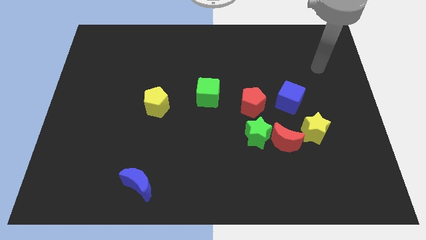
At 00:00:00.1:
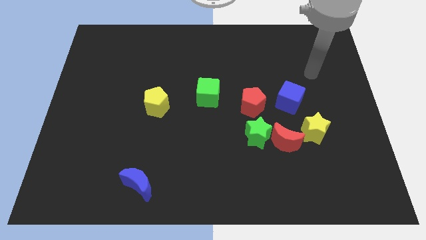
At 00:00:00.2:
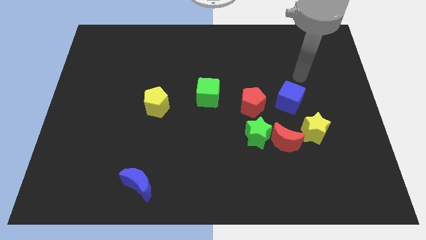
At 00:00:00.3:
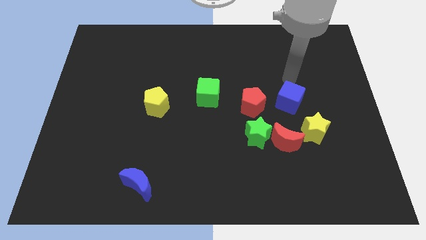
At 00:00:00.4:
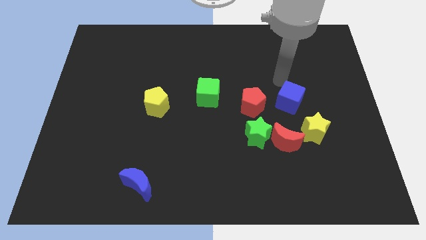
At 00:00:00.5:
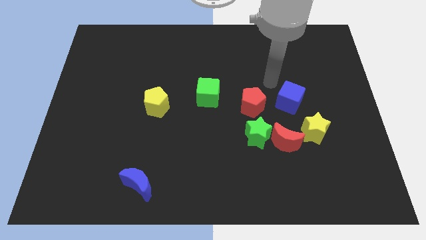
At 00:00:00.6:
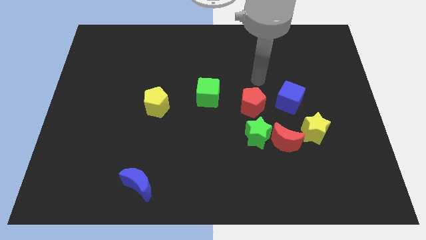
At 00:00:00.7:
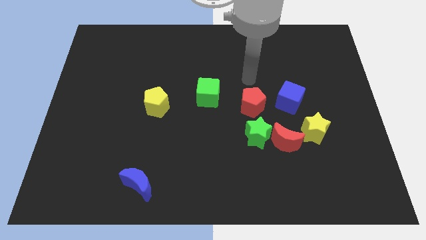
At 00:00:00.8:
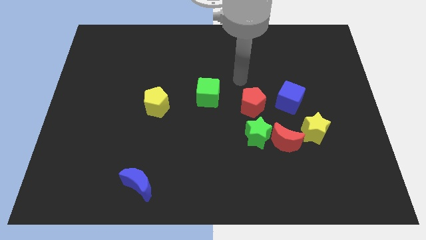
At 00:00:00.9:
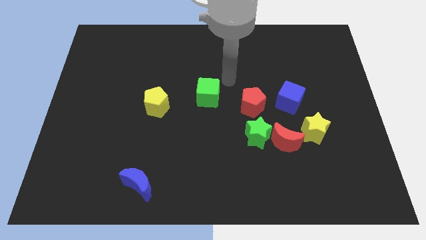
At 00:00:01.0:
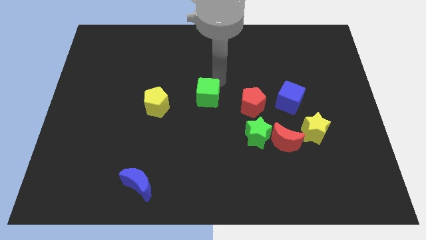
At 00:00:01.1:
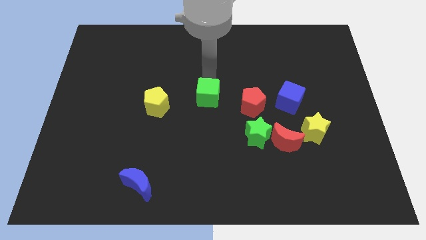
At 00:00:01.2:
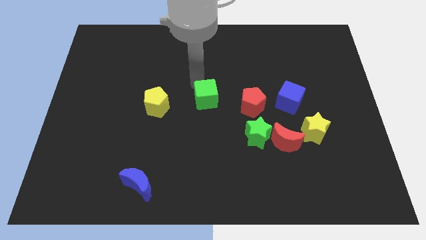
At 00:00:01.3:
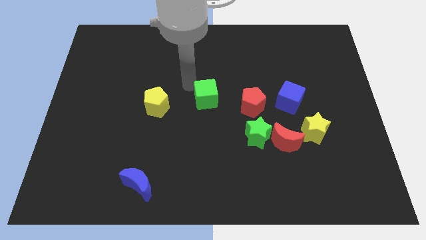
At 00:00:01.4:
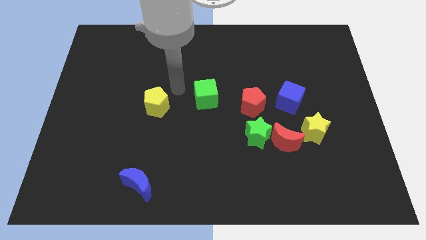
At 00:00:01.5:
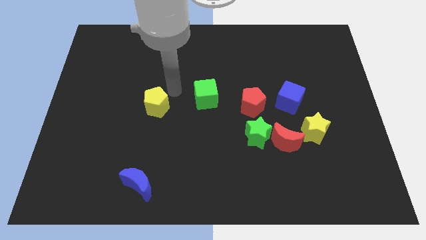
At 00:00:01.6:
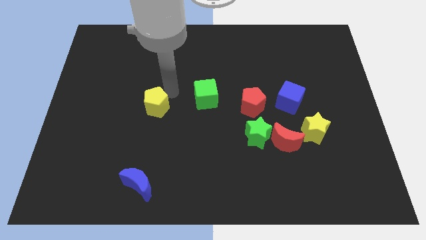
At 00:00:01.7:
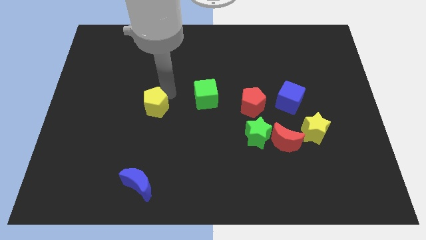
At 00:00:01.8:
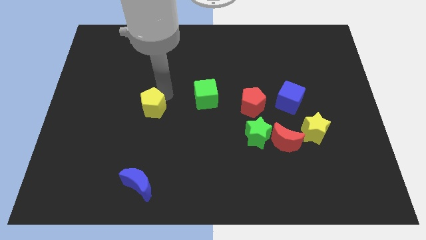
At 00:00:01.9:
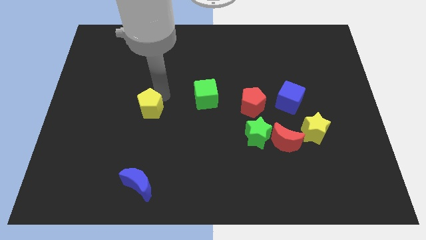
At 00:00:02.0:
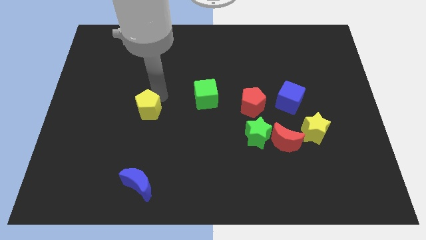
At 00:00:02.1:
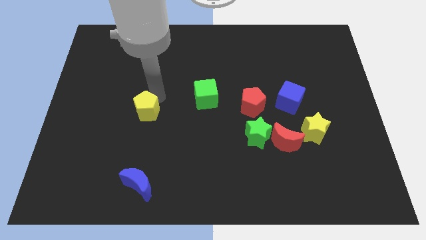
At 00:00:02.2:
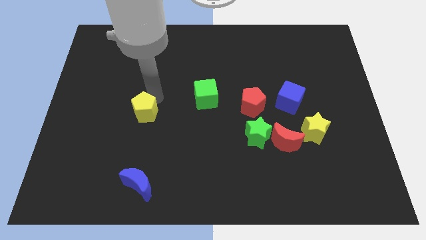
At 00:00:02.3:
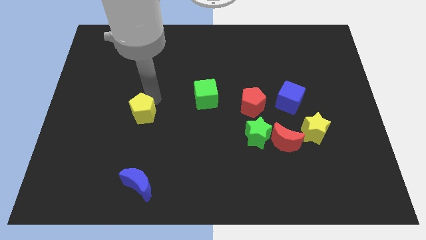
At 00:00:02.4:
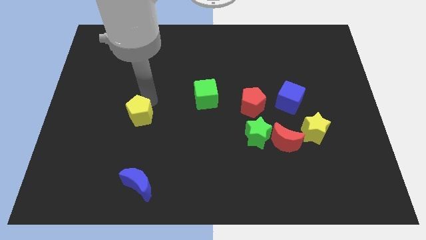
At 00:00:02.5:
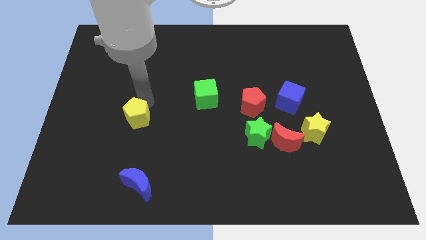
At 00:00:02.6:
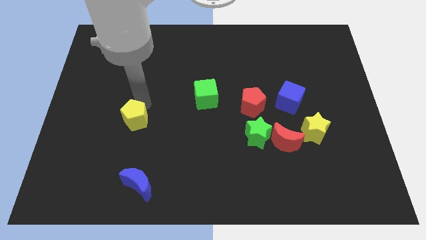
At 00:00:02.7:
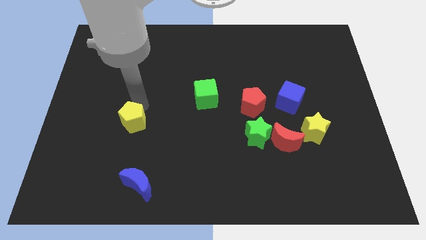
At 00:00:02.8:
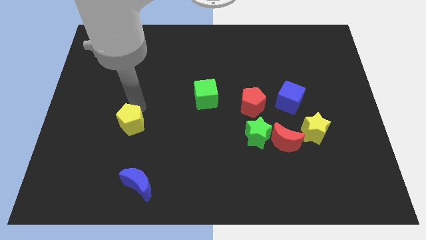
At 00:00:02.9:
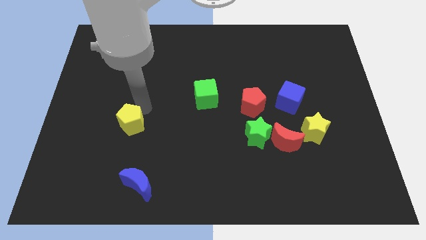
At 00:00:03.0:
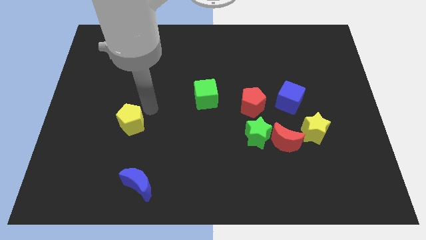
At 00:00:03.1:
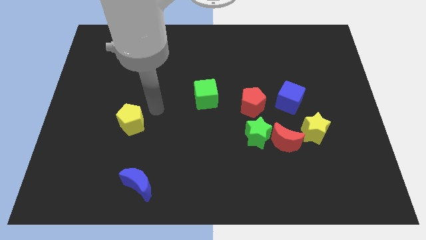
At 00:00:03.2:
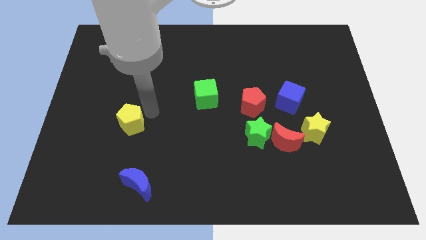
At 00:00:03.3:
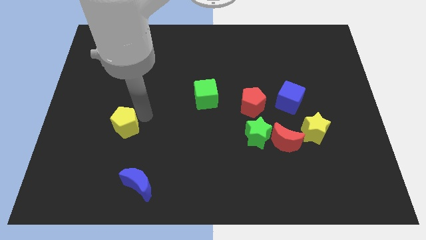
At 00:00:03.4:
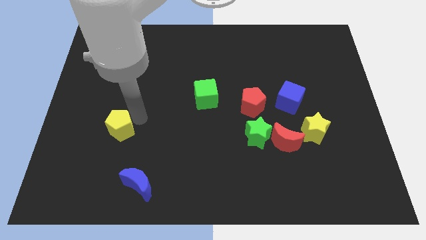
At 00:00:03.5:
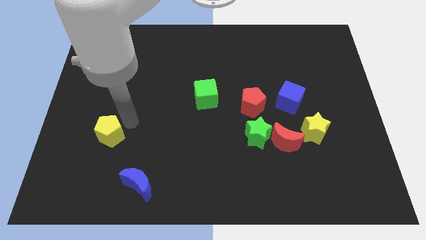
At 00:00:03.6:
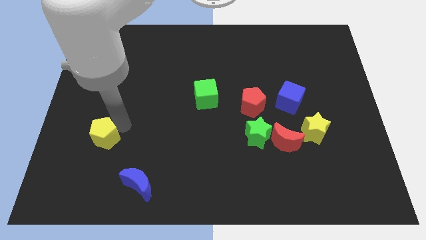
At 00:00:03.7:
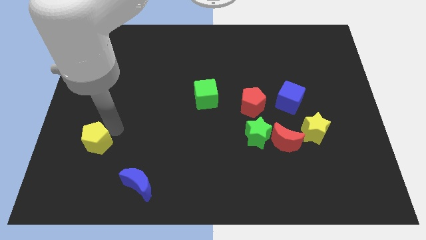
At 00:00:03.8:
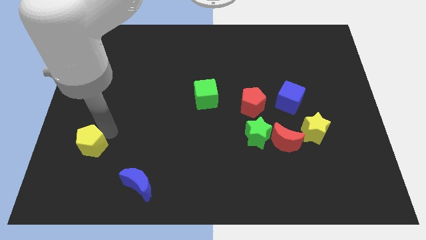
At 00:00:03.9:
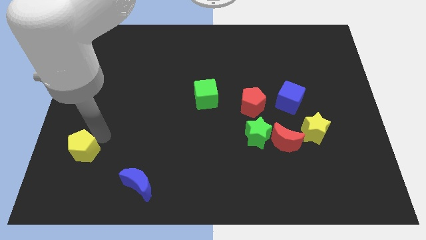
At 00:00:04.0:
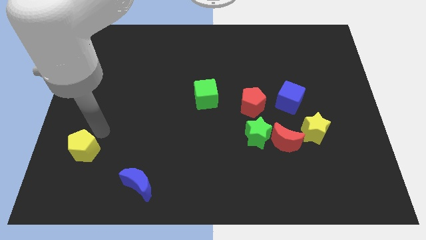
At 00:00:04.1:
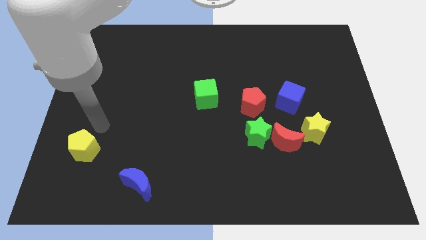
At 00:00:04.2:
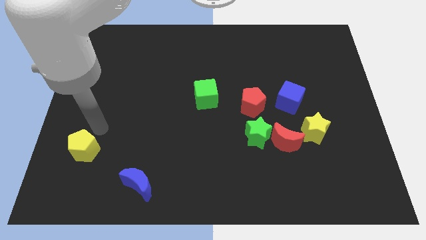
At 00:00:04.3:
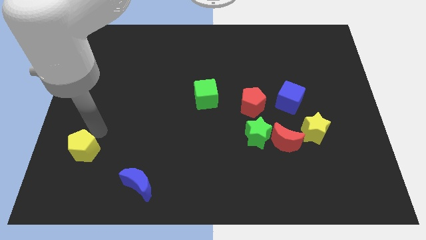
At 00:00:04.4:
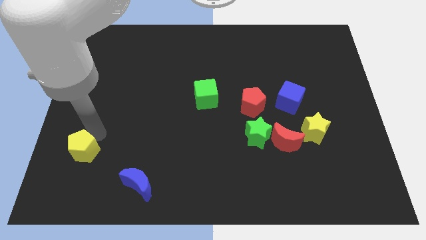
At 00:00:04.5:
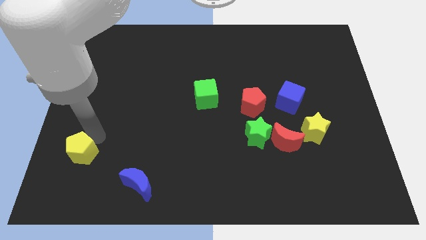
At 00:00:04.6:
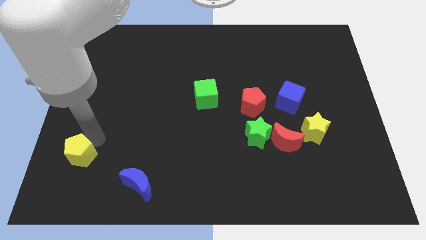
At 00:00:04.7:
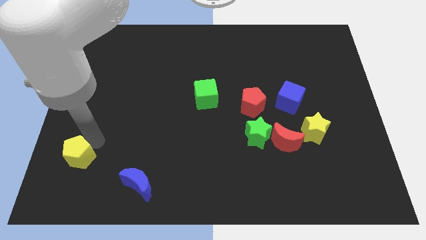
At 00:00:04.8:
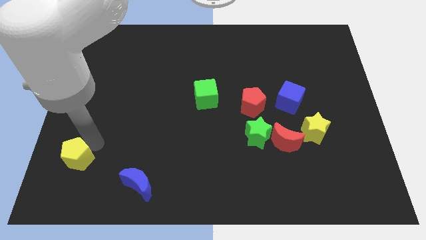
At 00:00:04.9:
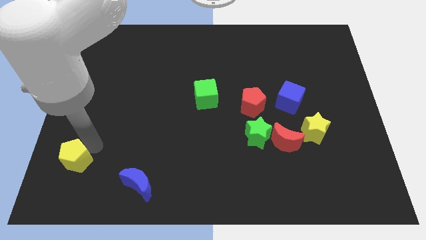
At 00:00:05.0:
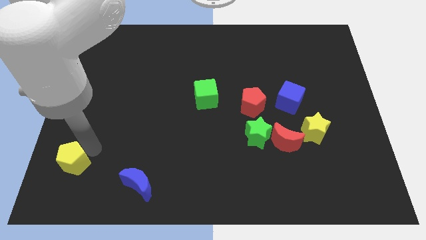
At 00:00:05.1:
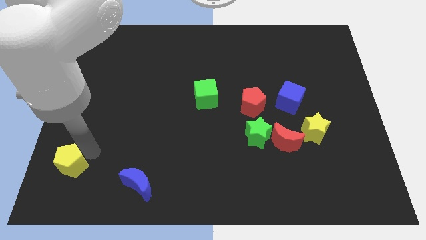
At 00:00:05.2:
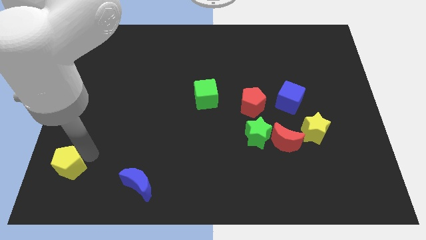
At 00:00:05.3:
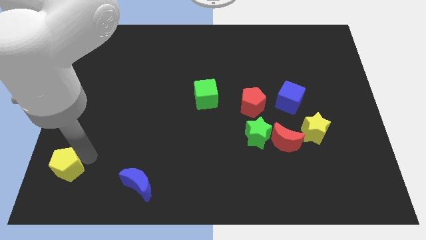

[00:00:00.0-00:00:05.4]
push the yellow pentagon to the bottom left of the board

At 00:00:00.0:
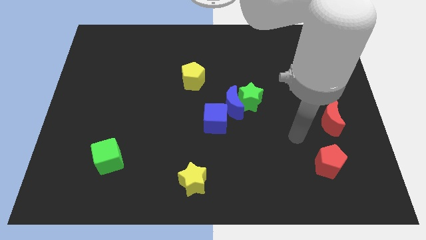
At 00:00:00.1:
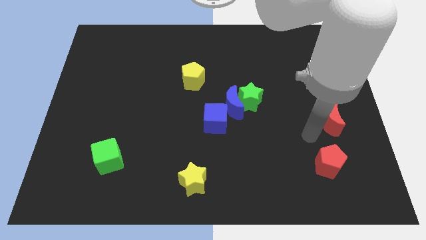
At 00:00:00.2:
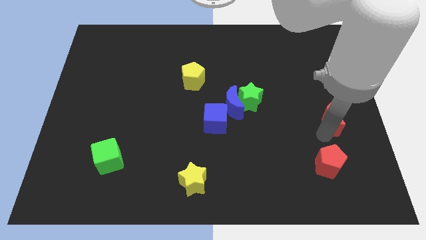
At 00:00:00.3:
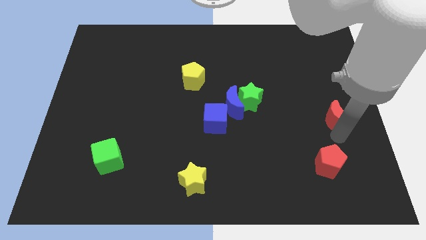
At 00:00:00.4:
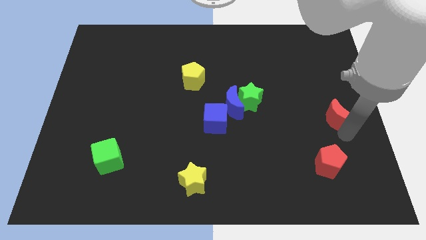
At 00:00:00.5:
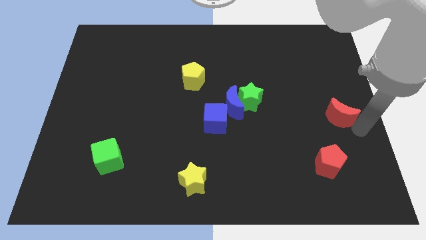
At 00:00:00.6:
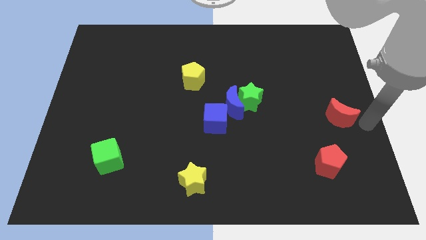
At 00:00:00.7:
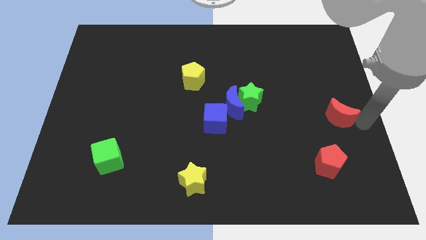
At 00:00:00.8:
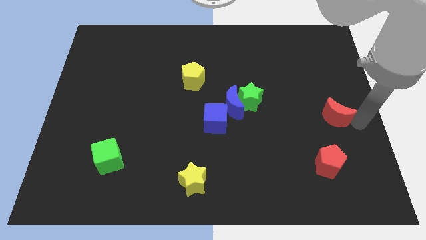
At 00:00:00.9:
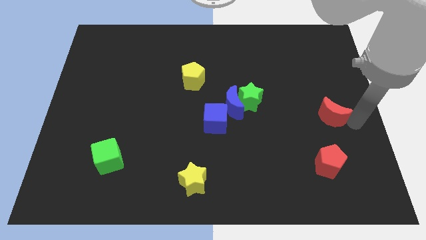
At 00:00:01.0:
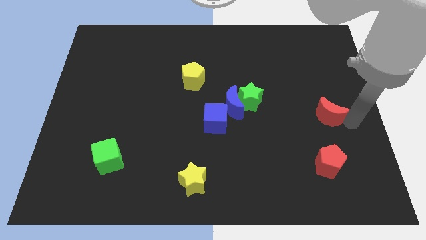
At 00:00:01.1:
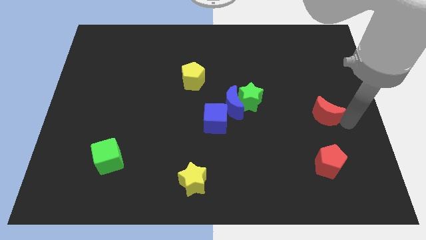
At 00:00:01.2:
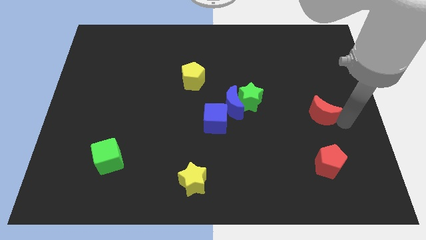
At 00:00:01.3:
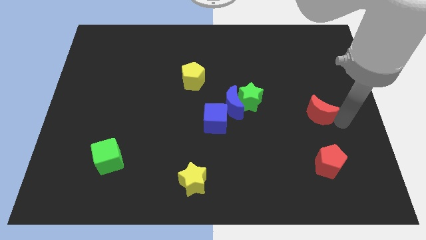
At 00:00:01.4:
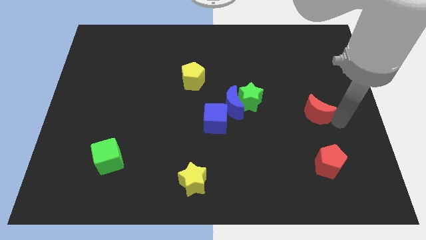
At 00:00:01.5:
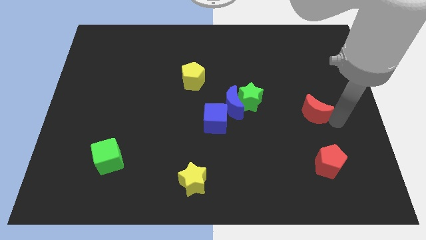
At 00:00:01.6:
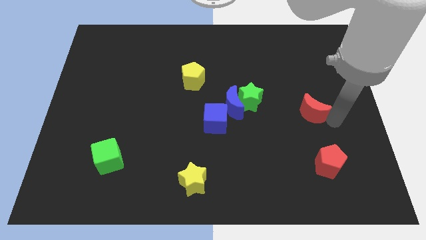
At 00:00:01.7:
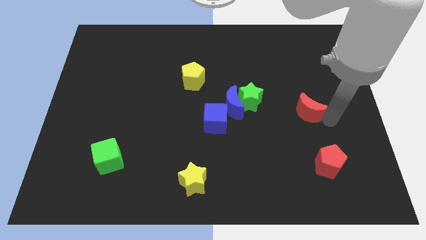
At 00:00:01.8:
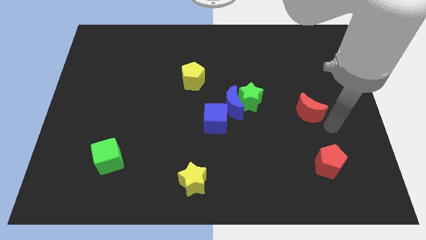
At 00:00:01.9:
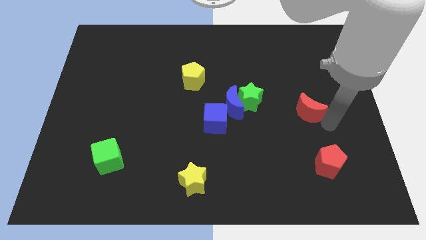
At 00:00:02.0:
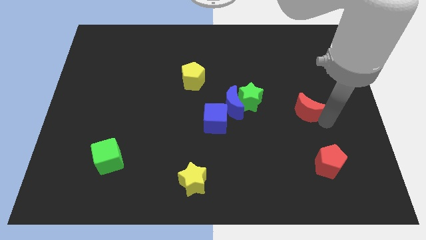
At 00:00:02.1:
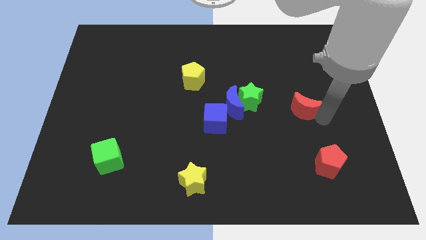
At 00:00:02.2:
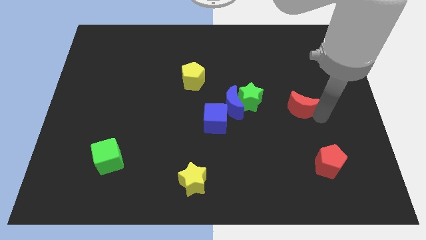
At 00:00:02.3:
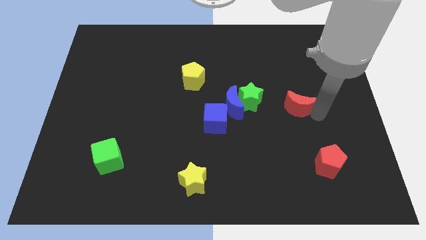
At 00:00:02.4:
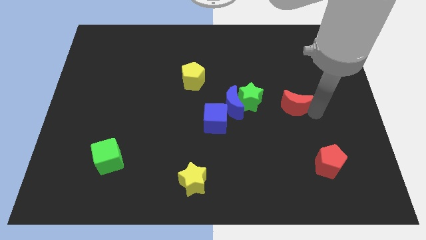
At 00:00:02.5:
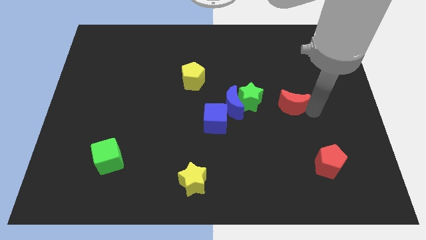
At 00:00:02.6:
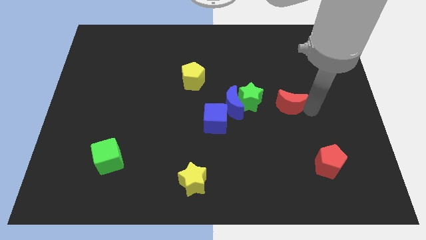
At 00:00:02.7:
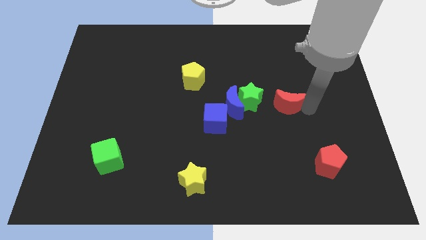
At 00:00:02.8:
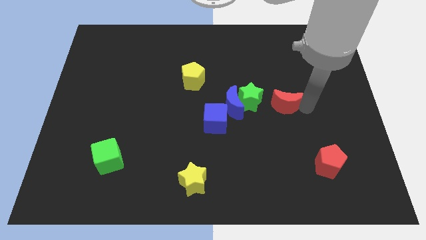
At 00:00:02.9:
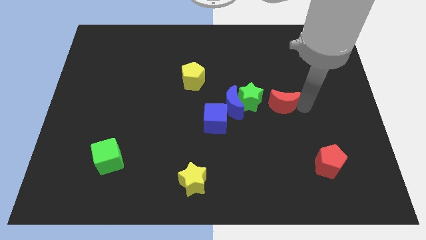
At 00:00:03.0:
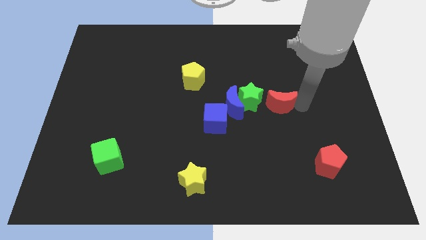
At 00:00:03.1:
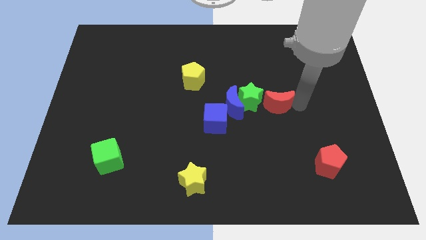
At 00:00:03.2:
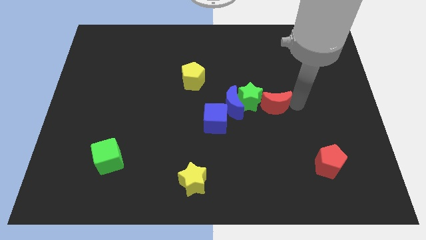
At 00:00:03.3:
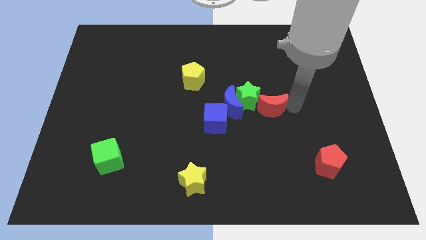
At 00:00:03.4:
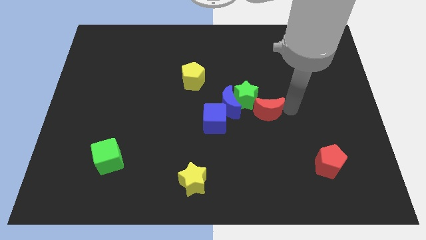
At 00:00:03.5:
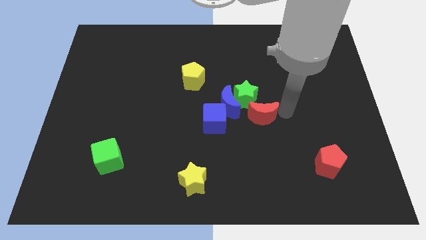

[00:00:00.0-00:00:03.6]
push the red moon to the center of the board
